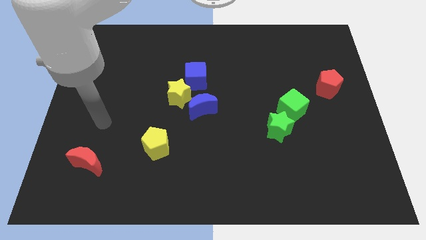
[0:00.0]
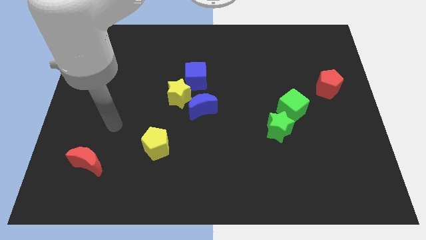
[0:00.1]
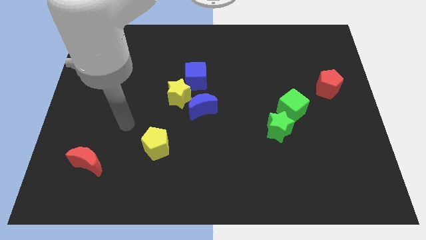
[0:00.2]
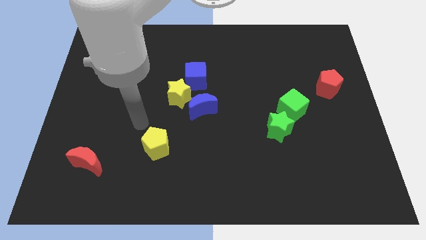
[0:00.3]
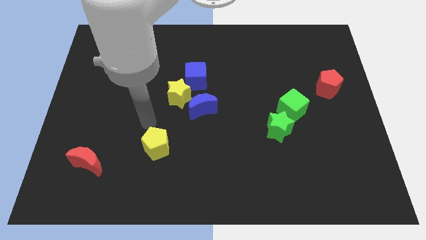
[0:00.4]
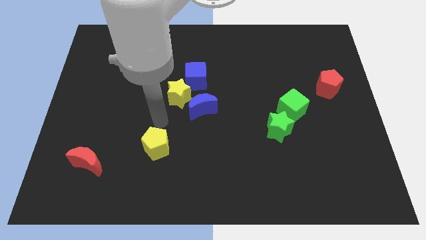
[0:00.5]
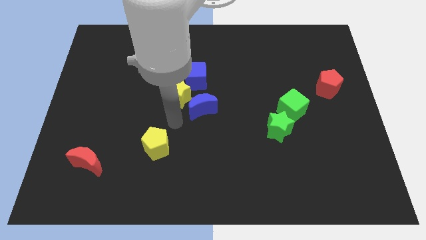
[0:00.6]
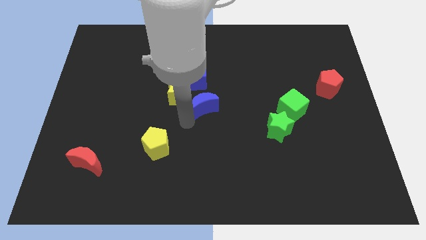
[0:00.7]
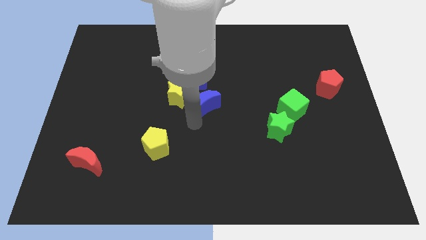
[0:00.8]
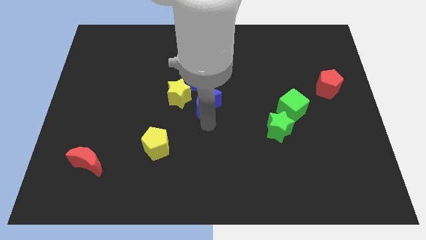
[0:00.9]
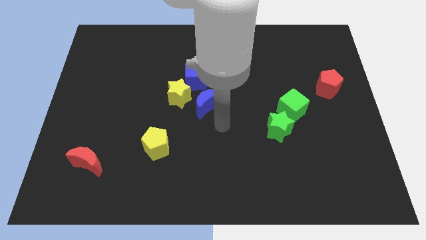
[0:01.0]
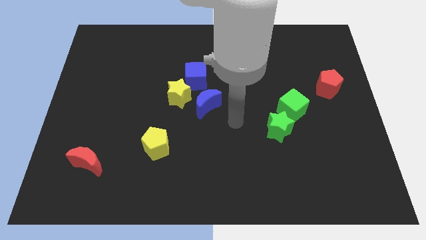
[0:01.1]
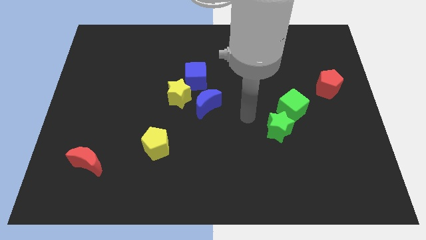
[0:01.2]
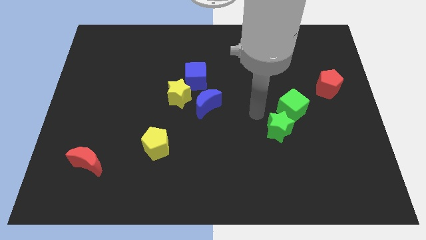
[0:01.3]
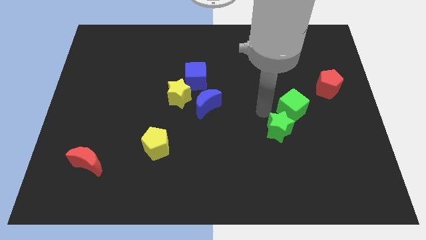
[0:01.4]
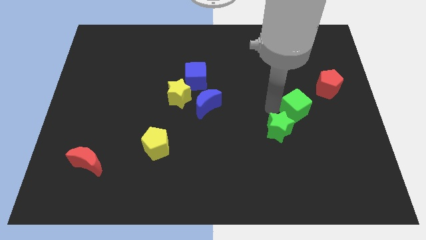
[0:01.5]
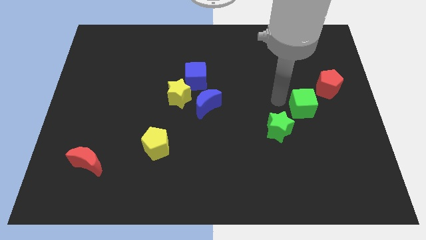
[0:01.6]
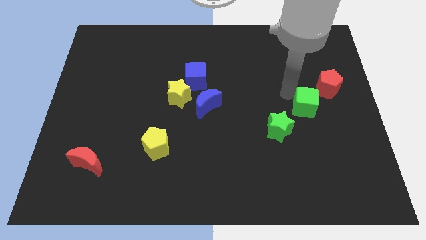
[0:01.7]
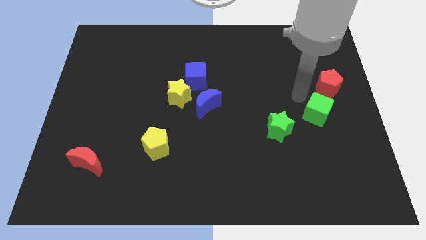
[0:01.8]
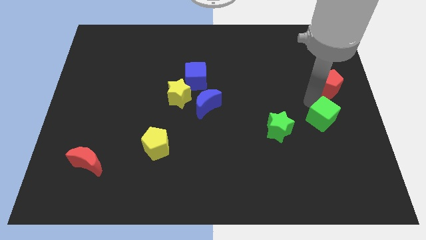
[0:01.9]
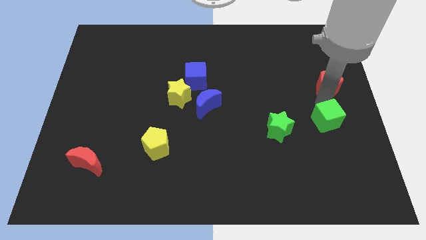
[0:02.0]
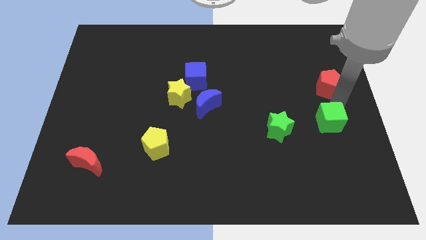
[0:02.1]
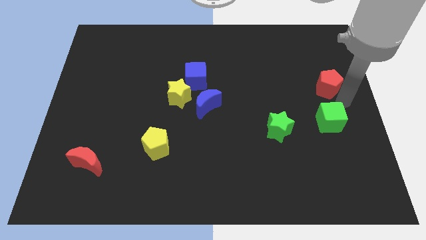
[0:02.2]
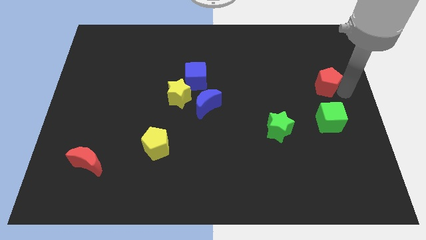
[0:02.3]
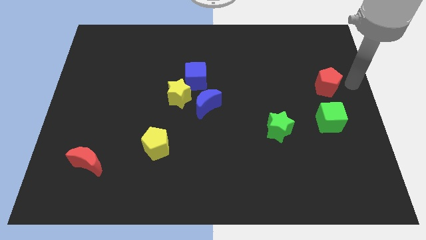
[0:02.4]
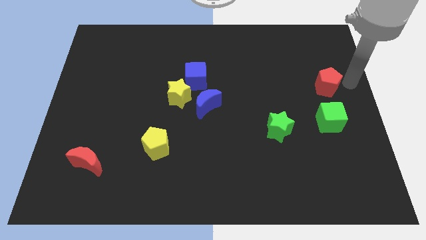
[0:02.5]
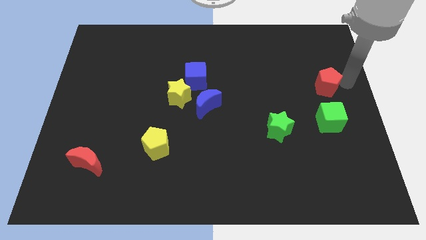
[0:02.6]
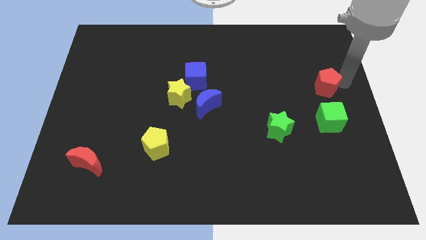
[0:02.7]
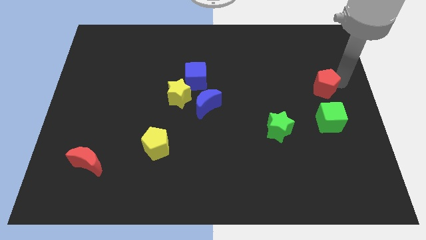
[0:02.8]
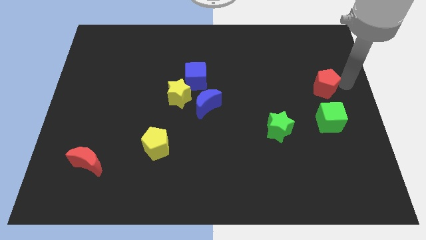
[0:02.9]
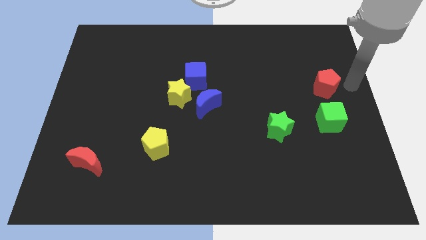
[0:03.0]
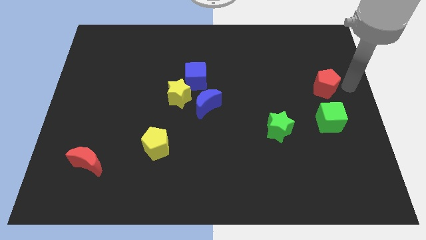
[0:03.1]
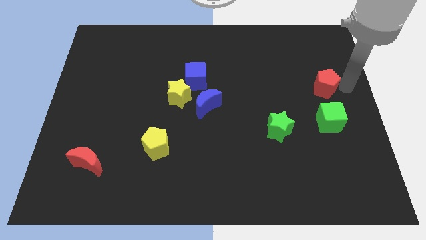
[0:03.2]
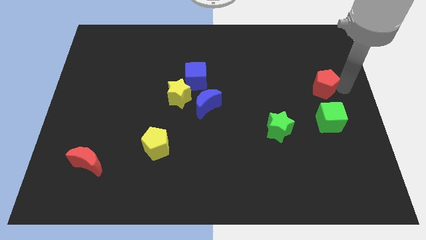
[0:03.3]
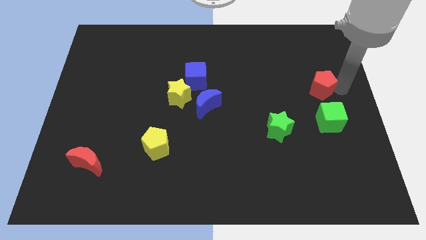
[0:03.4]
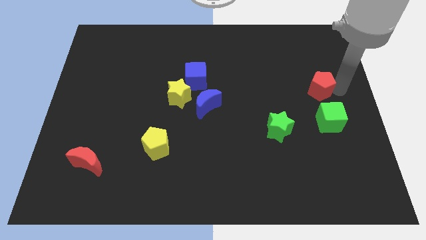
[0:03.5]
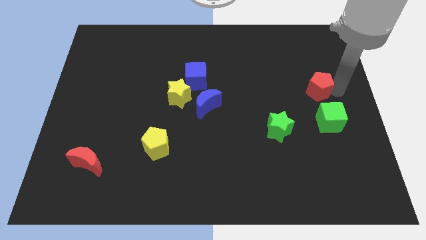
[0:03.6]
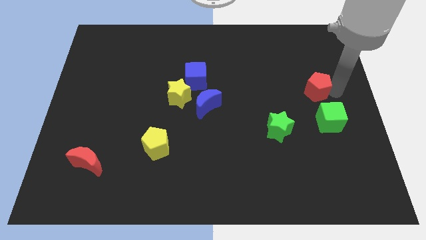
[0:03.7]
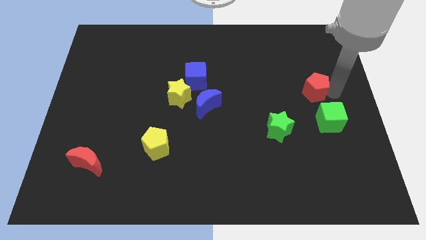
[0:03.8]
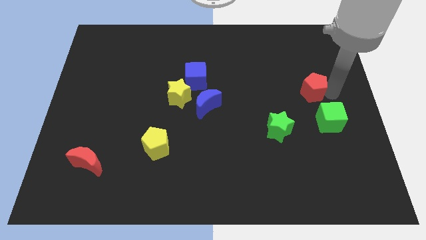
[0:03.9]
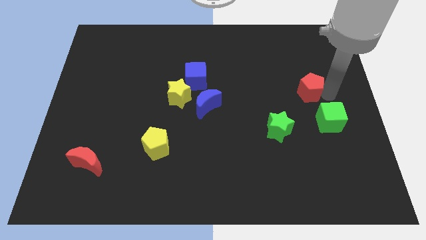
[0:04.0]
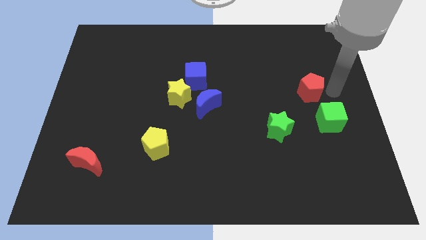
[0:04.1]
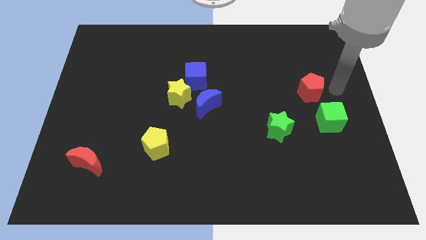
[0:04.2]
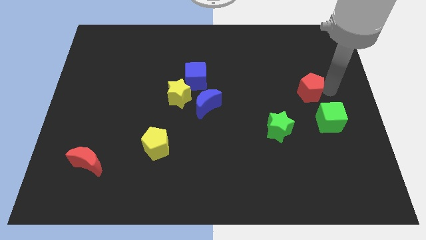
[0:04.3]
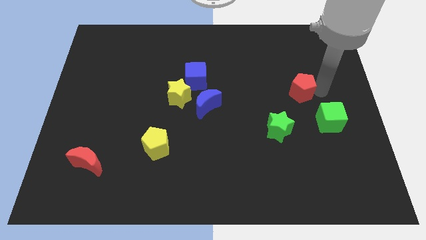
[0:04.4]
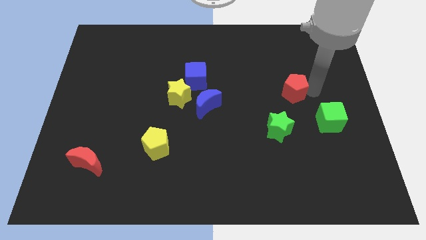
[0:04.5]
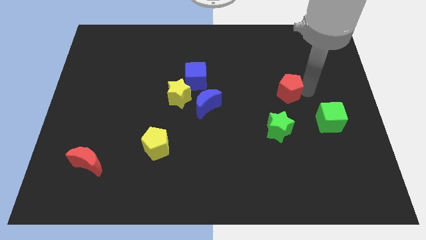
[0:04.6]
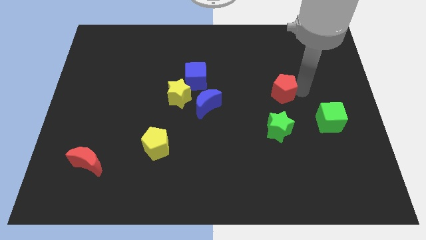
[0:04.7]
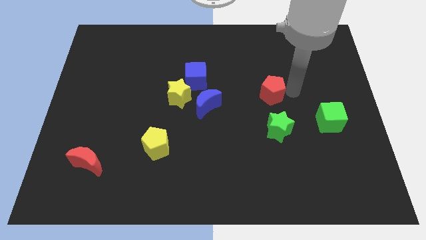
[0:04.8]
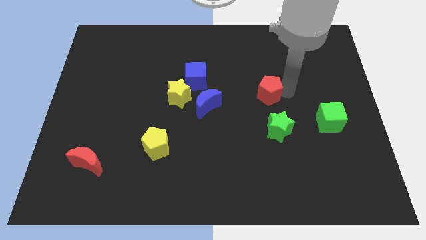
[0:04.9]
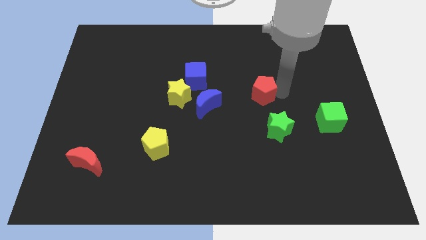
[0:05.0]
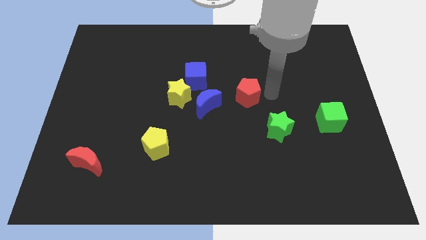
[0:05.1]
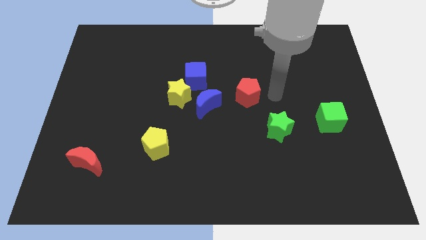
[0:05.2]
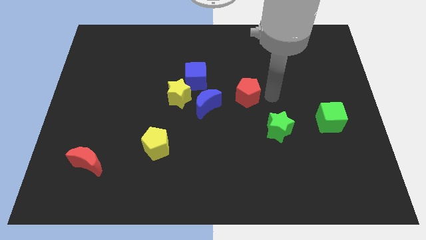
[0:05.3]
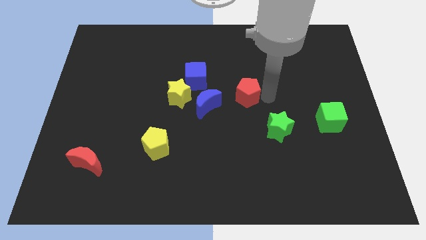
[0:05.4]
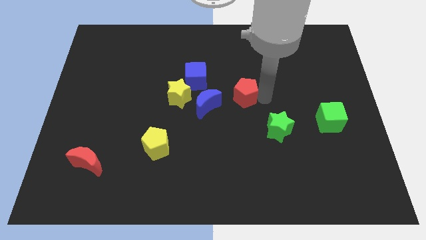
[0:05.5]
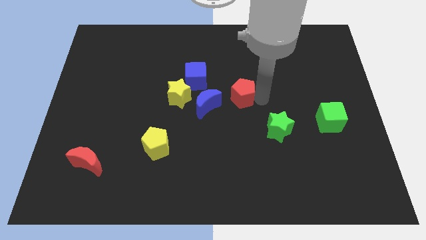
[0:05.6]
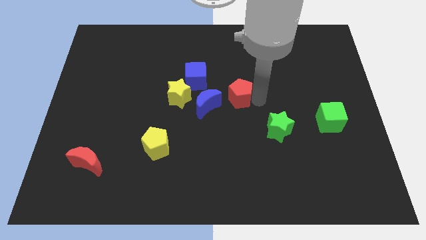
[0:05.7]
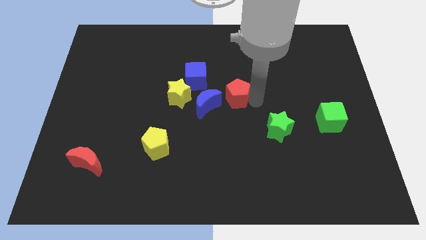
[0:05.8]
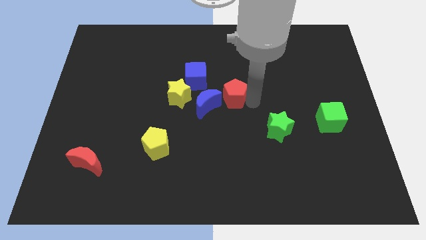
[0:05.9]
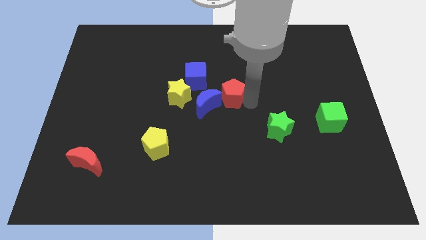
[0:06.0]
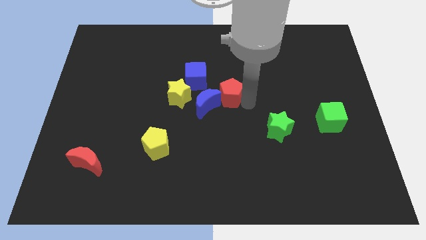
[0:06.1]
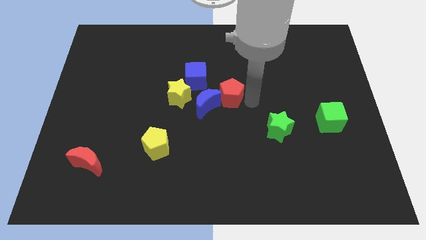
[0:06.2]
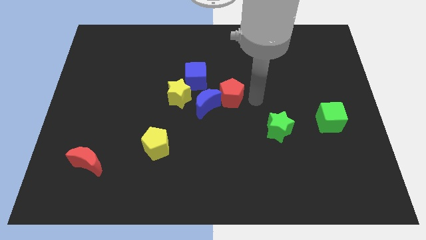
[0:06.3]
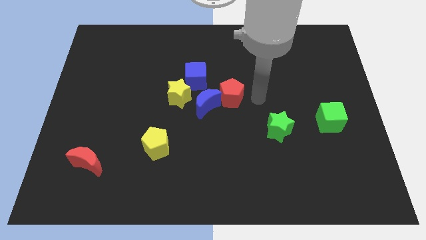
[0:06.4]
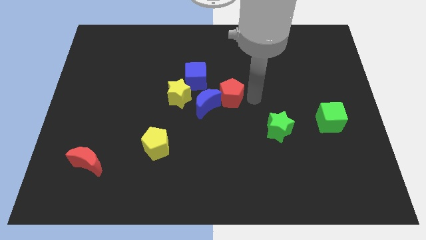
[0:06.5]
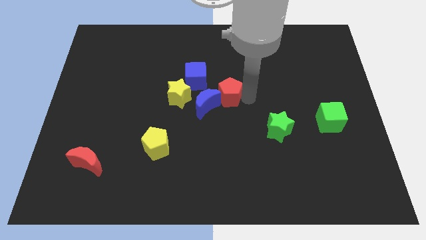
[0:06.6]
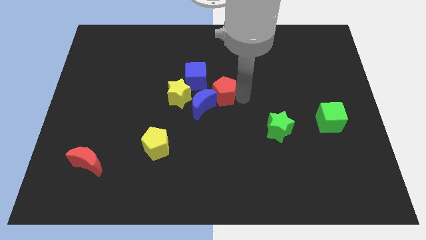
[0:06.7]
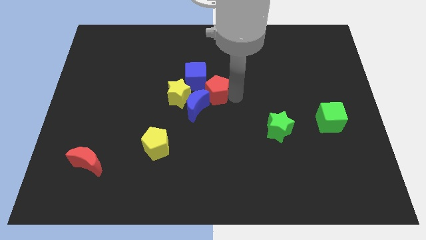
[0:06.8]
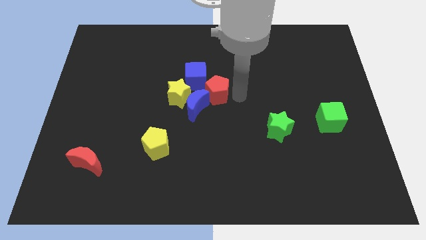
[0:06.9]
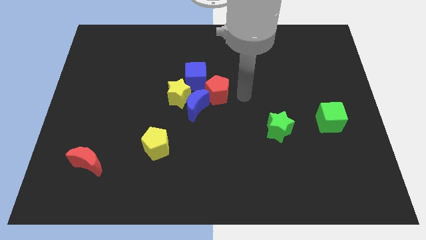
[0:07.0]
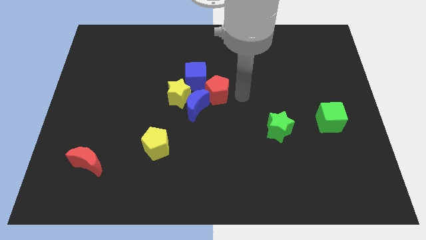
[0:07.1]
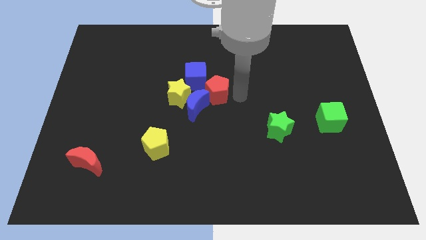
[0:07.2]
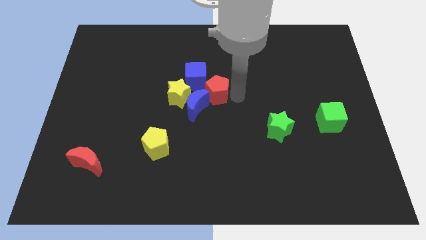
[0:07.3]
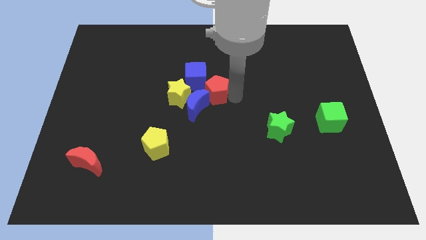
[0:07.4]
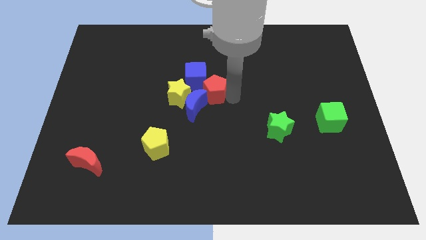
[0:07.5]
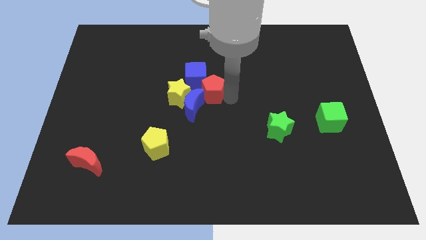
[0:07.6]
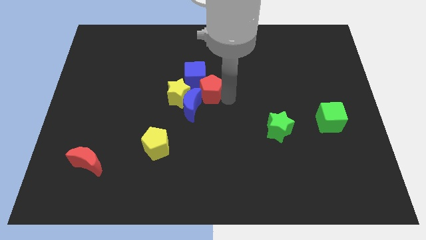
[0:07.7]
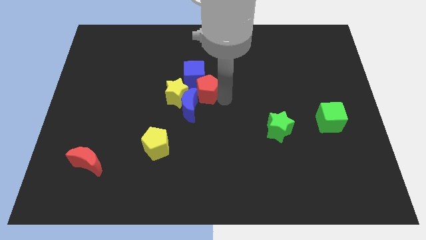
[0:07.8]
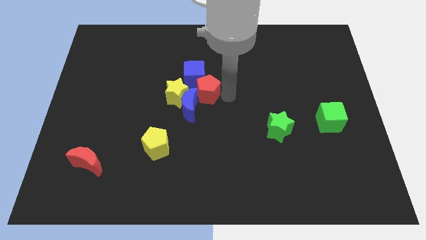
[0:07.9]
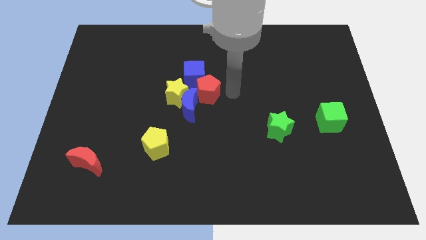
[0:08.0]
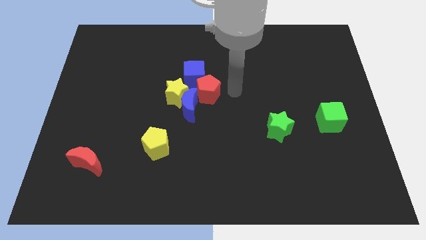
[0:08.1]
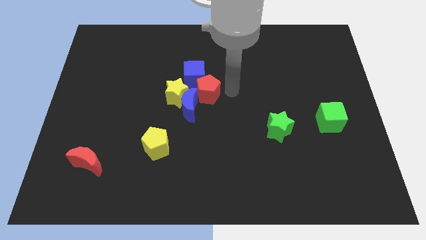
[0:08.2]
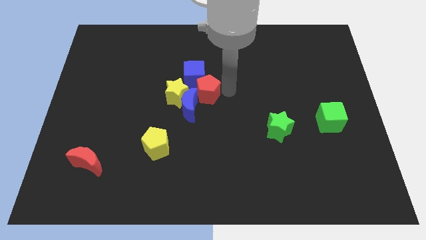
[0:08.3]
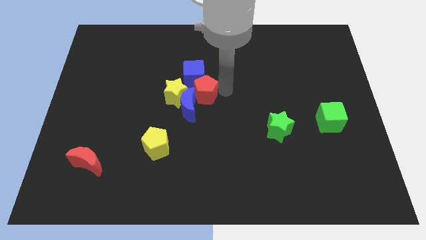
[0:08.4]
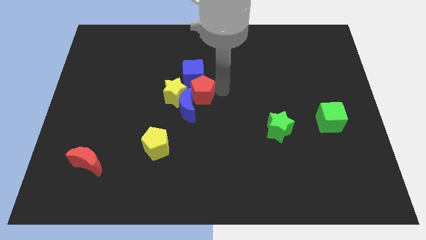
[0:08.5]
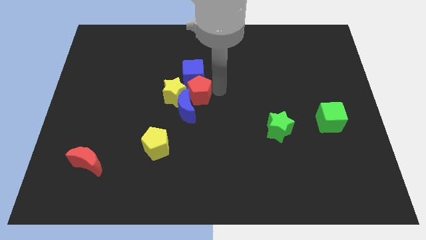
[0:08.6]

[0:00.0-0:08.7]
slide the red pentagon to the yellow star
